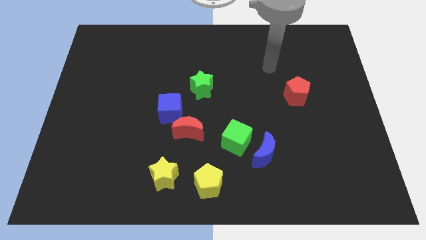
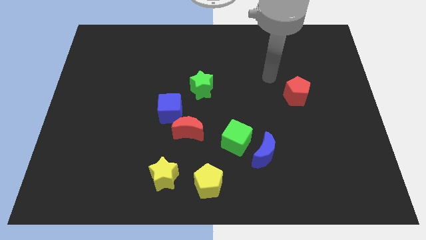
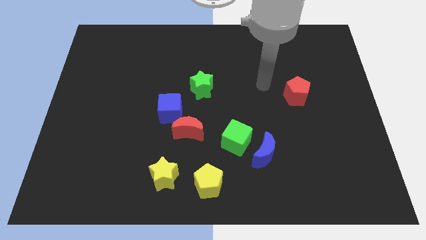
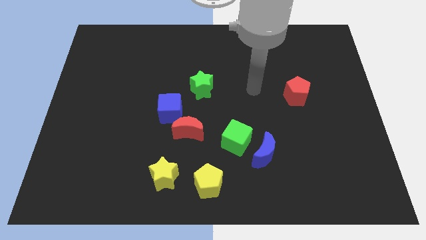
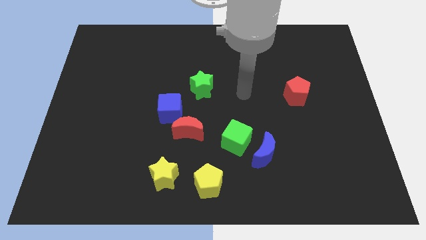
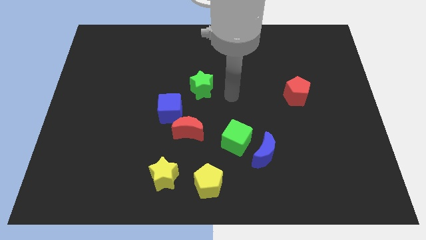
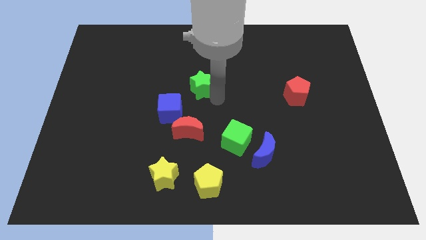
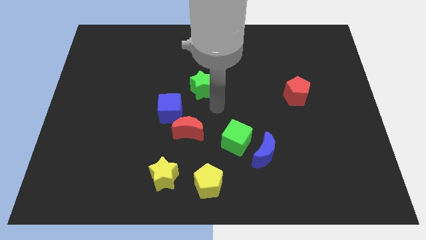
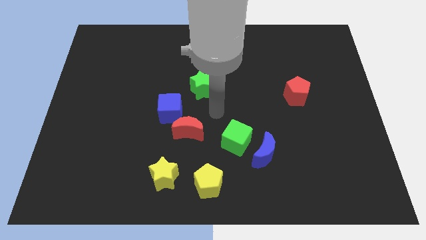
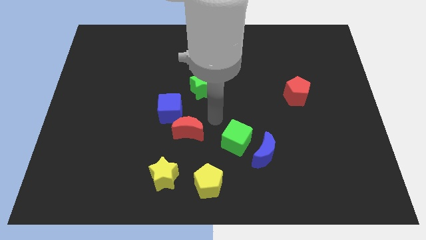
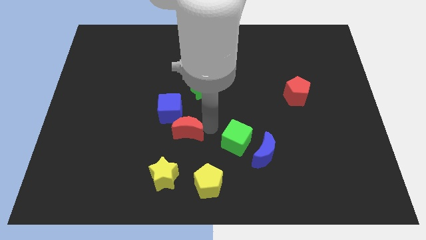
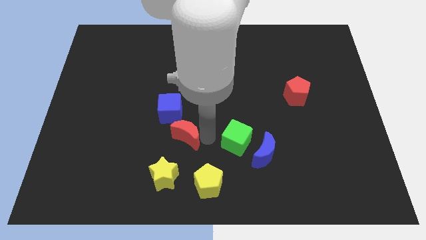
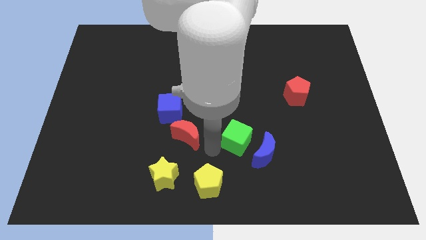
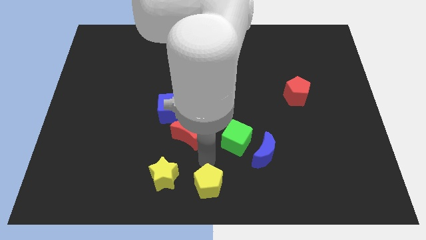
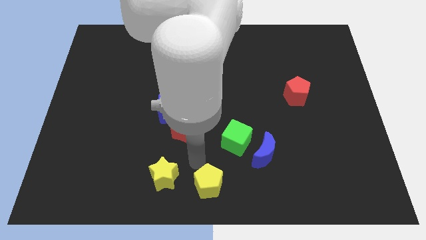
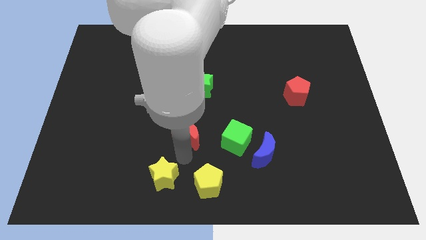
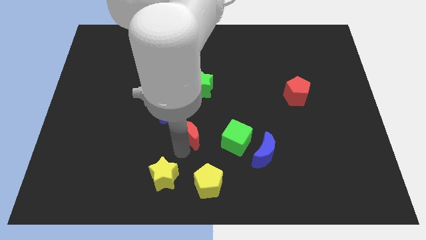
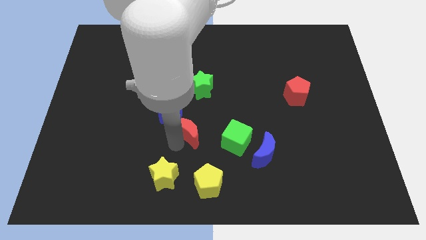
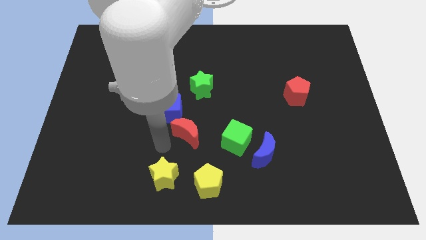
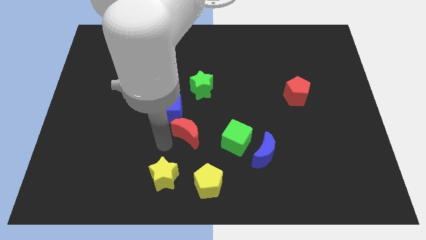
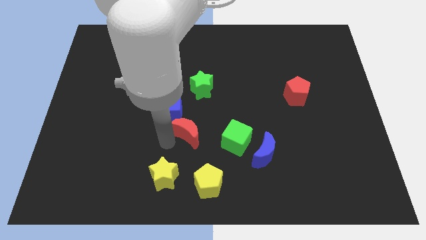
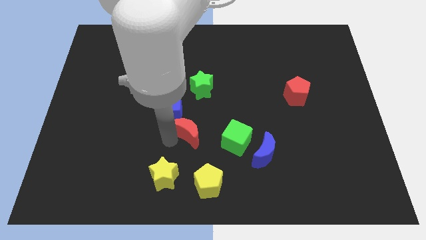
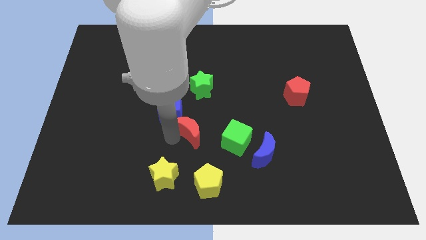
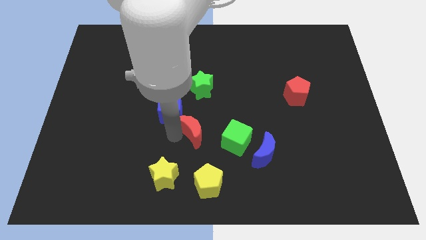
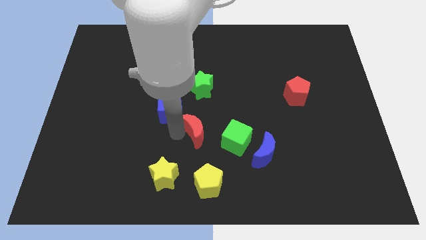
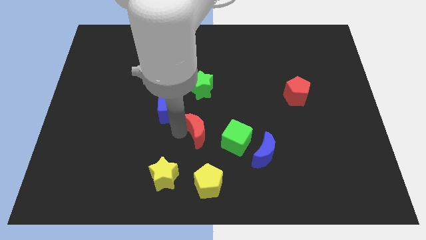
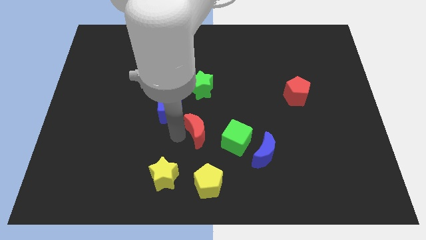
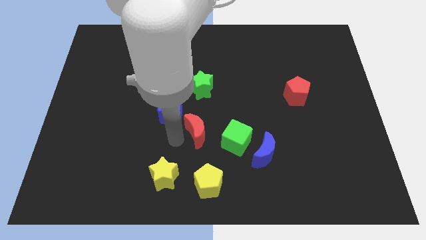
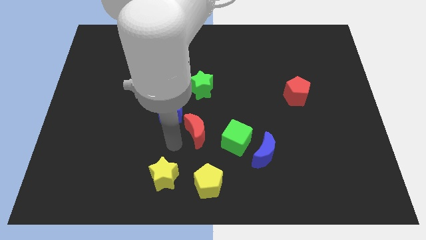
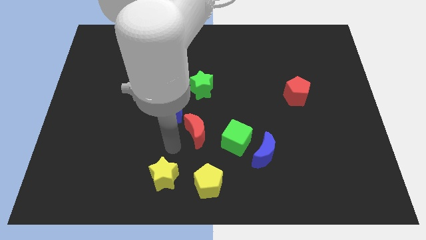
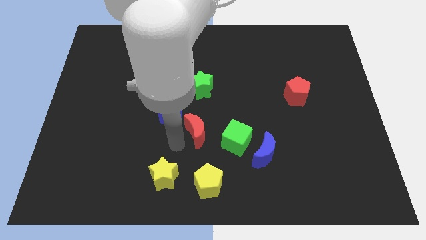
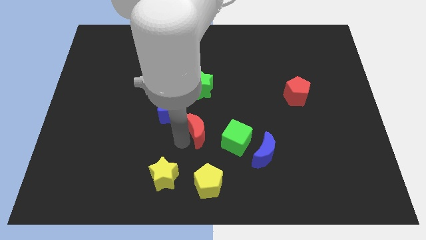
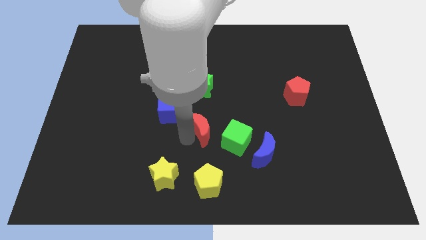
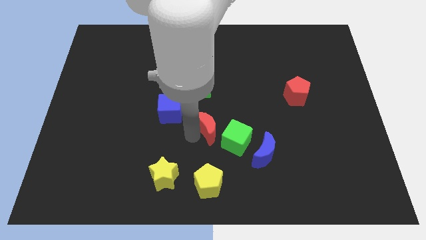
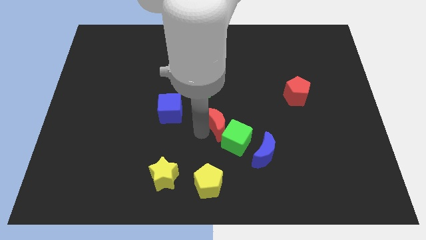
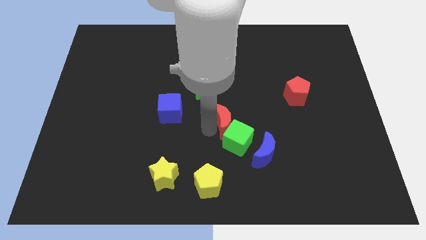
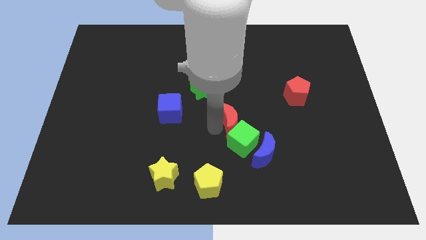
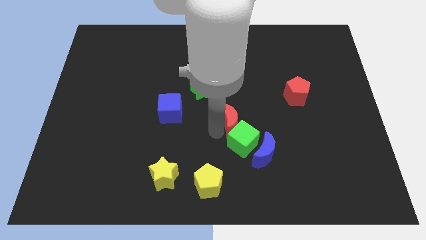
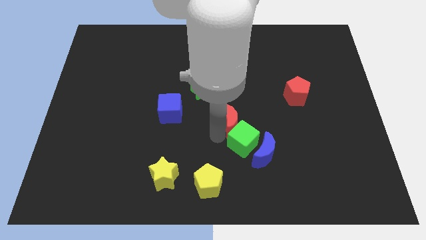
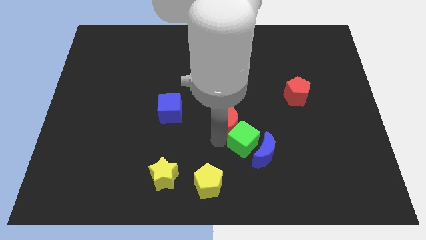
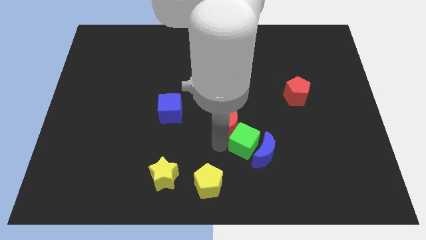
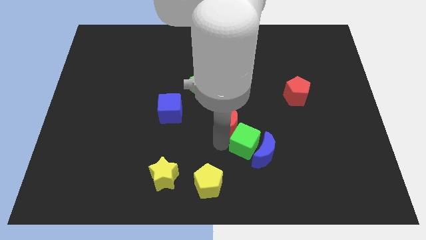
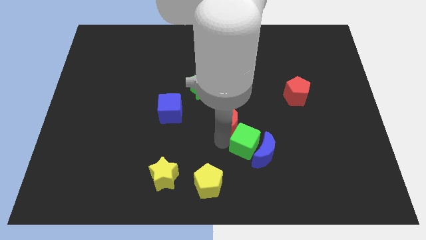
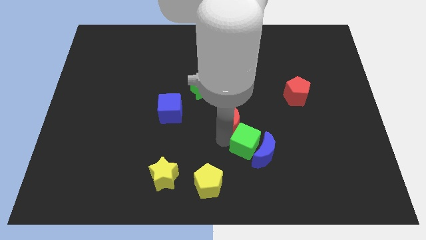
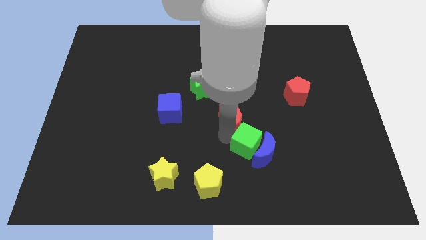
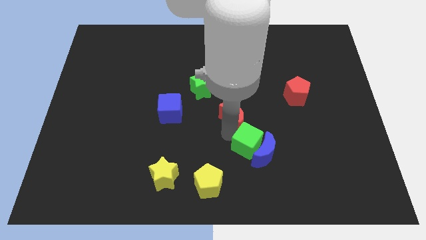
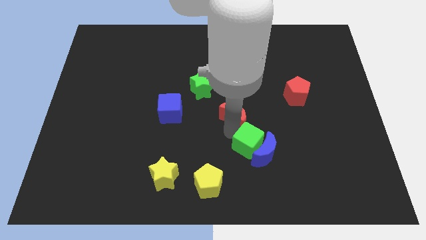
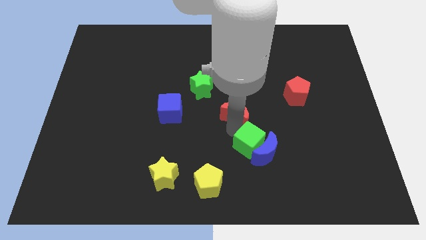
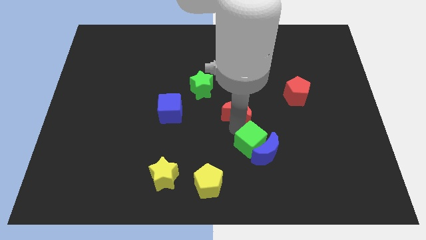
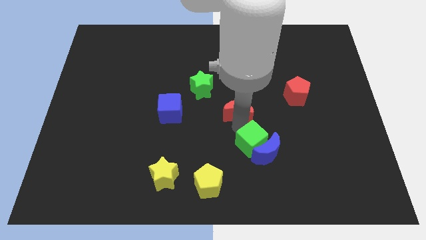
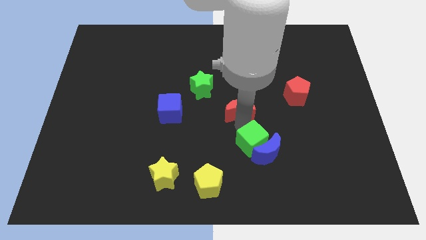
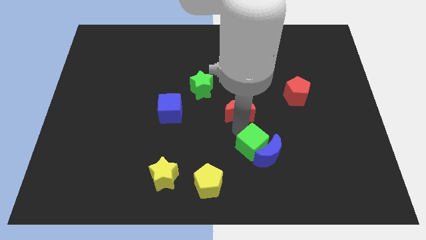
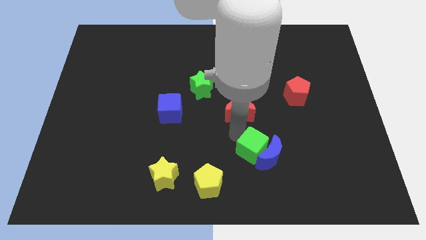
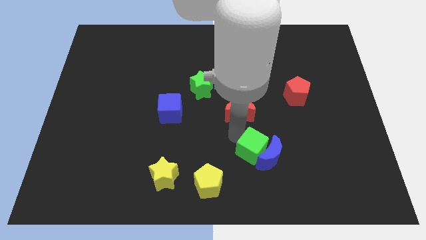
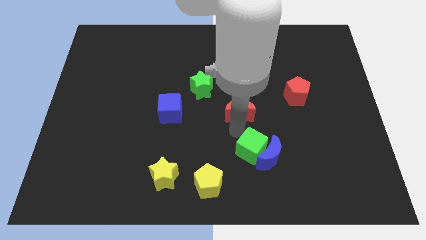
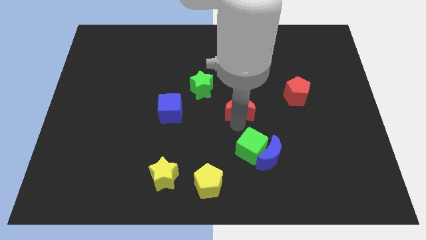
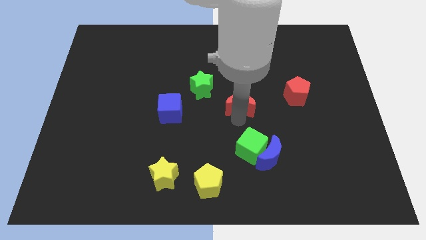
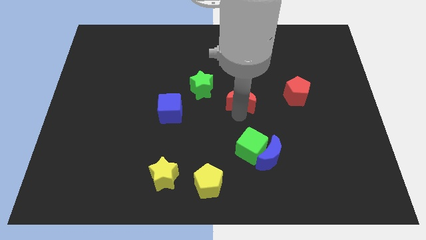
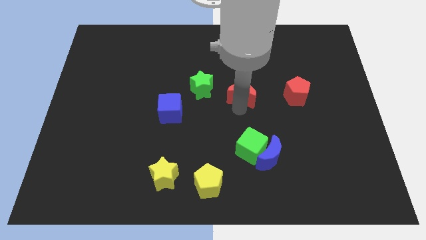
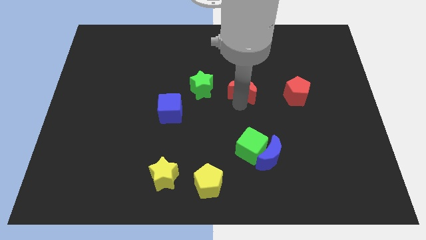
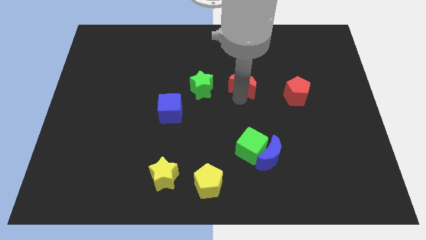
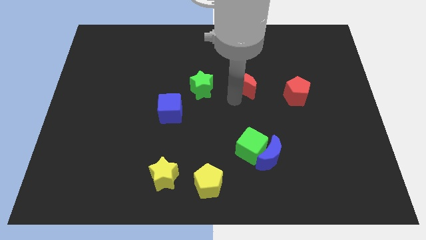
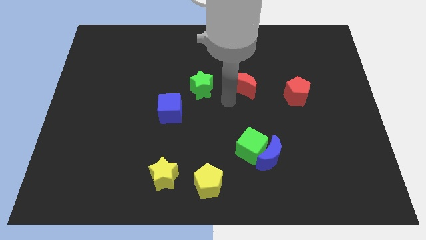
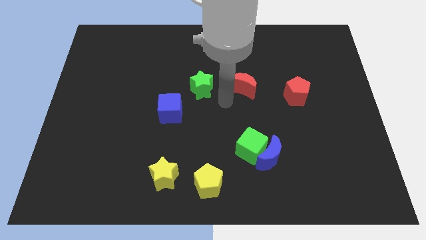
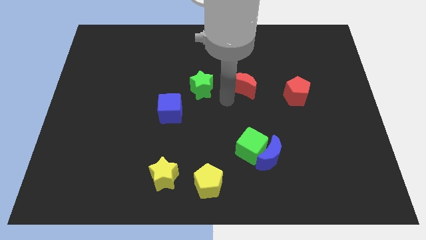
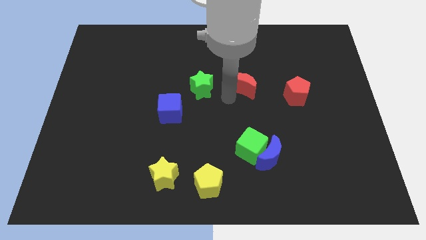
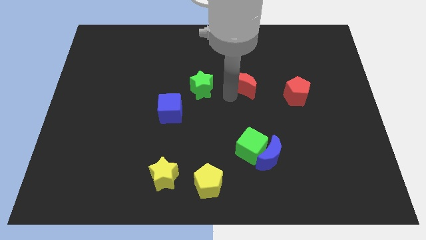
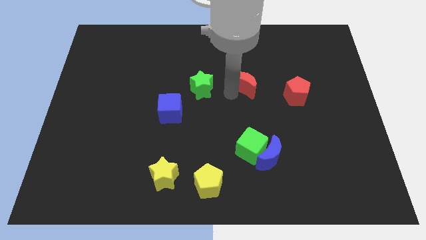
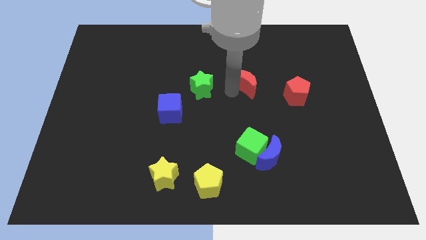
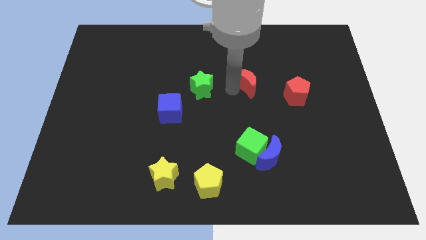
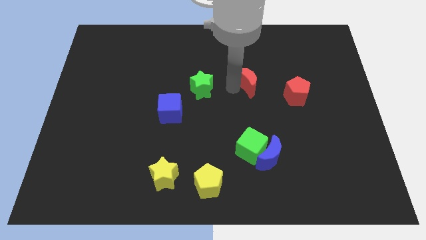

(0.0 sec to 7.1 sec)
push the red moon diagonally up and right

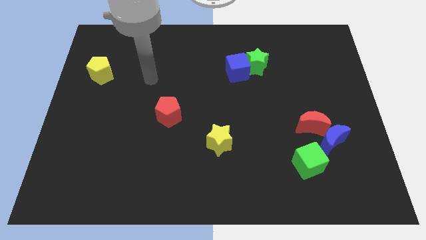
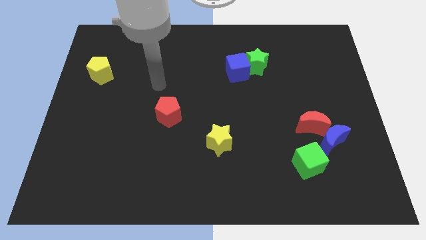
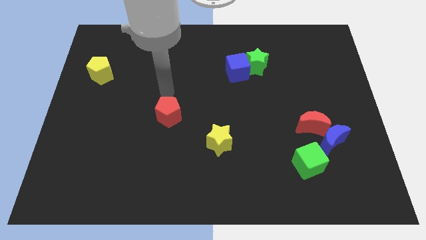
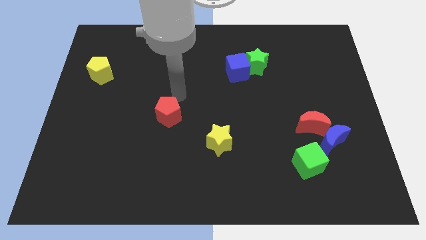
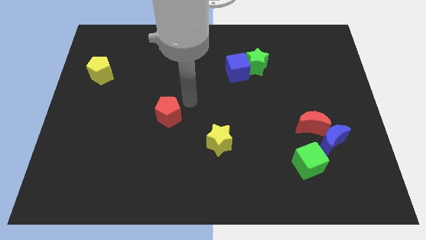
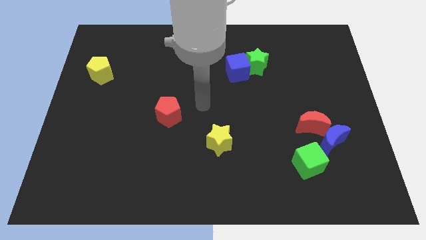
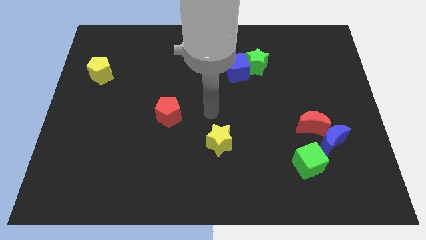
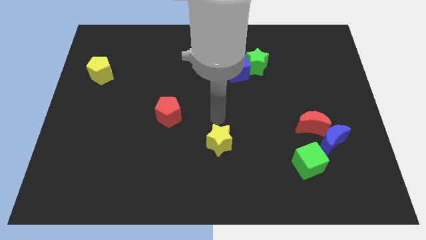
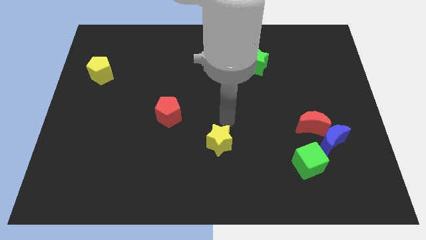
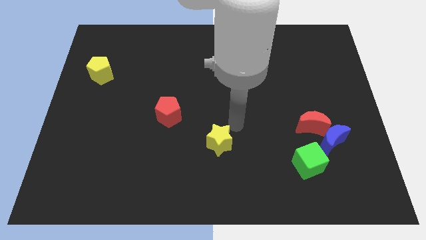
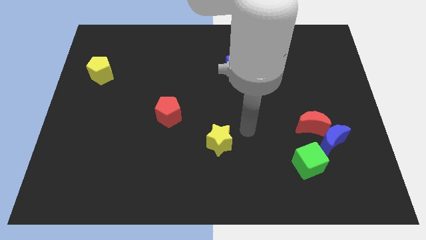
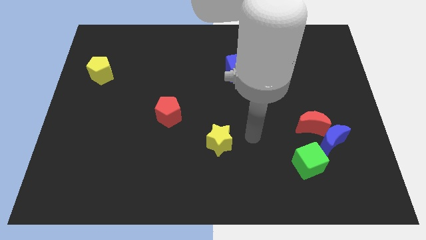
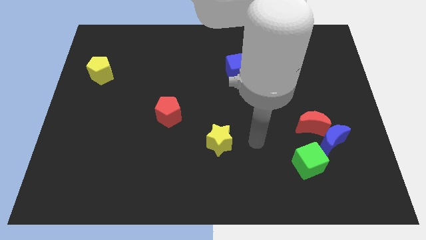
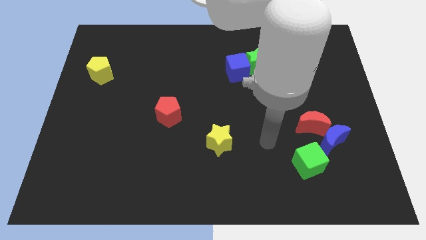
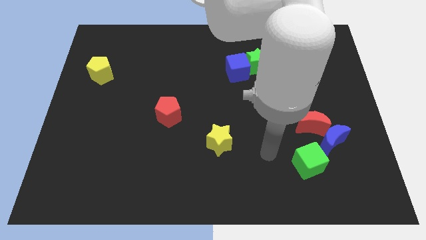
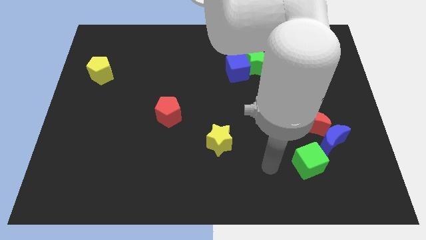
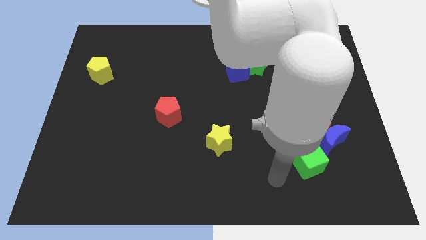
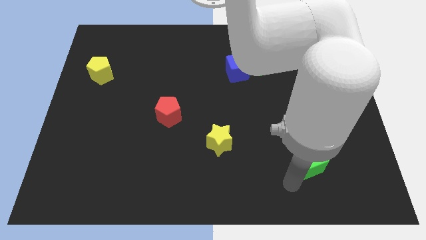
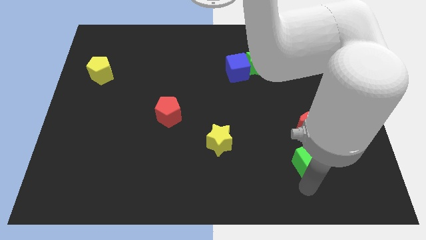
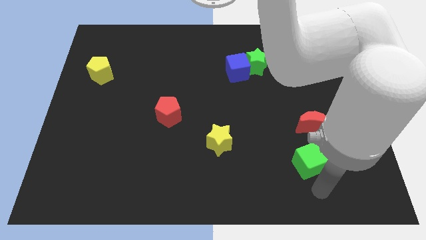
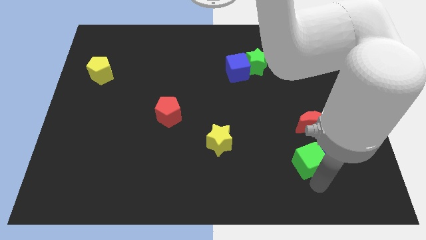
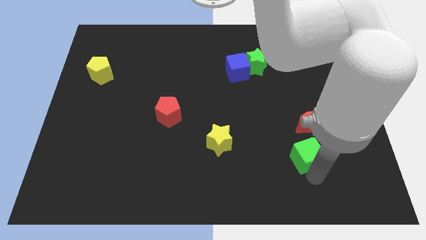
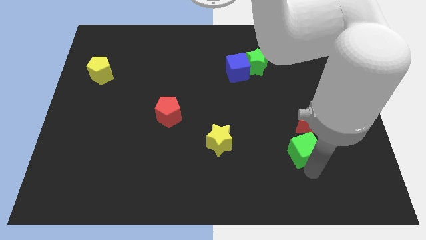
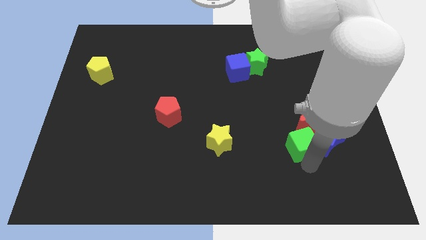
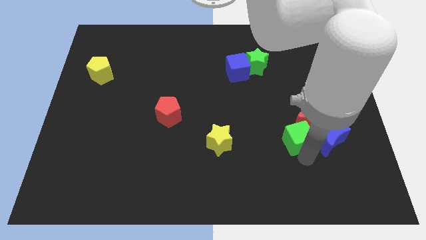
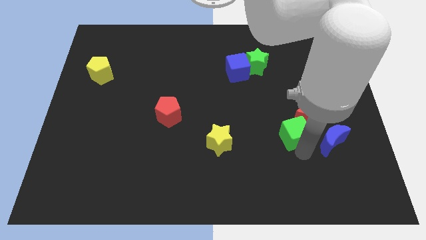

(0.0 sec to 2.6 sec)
move the green cube slightly up
